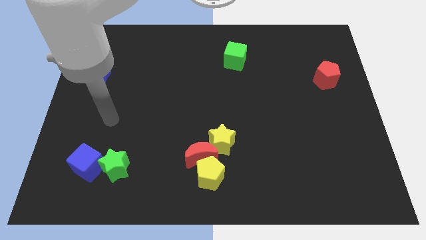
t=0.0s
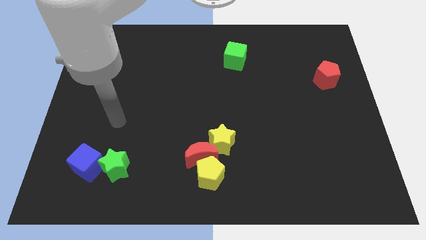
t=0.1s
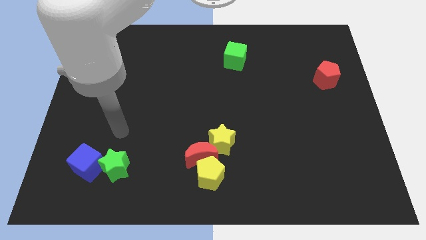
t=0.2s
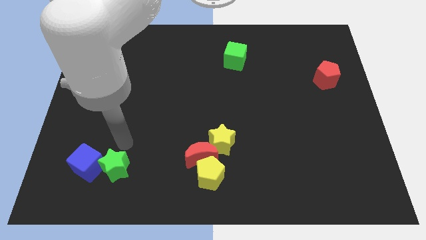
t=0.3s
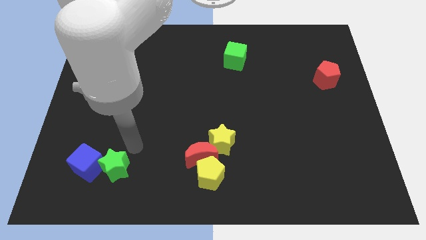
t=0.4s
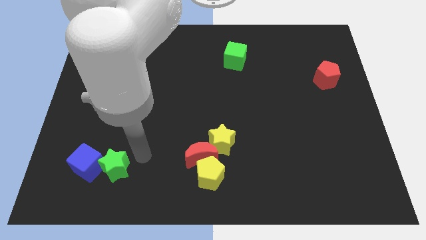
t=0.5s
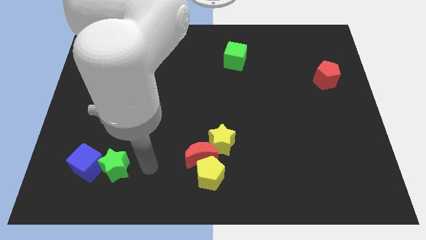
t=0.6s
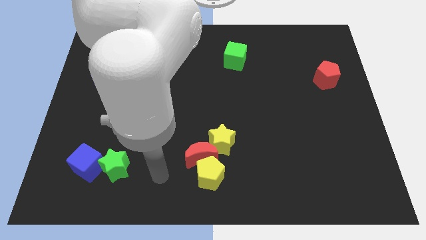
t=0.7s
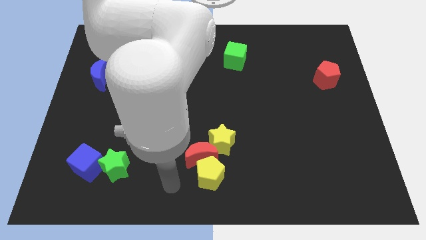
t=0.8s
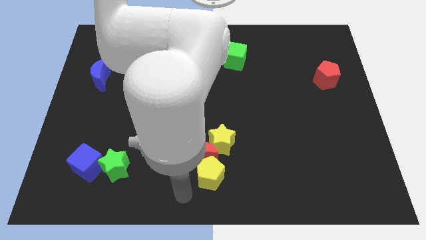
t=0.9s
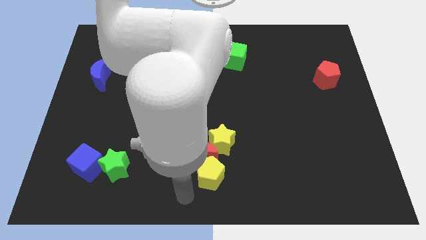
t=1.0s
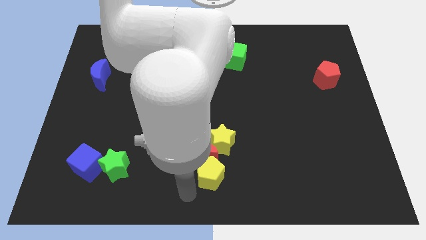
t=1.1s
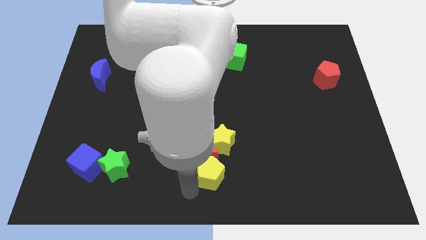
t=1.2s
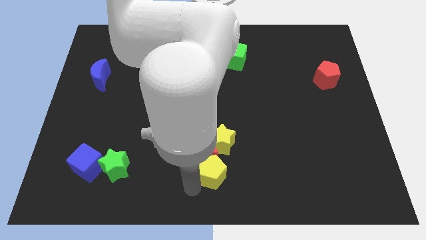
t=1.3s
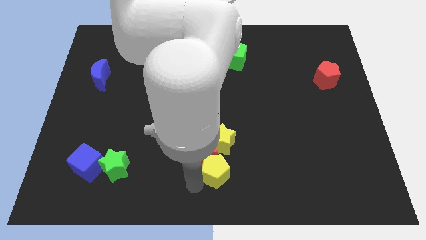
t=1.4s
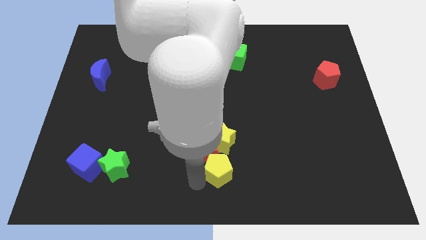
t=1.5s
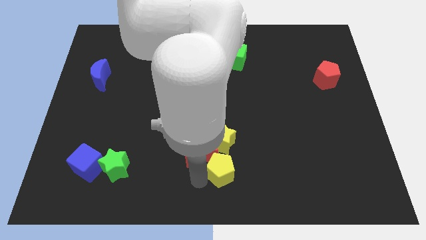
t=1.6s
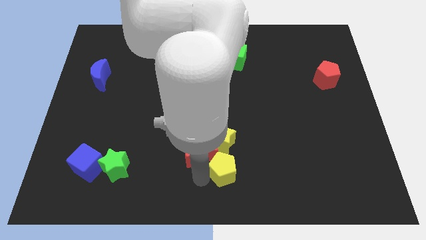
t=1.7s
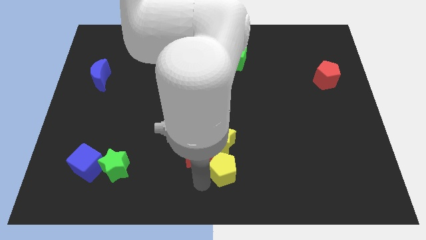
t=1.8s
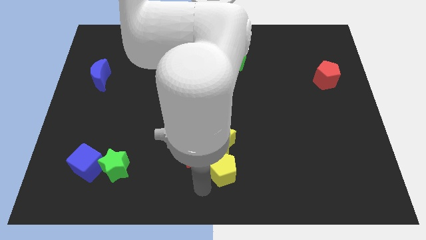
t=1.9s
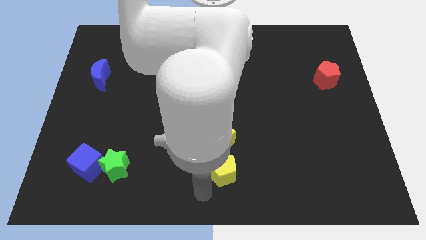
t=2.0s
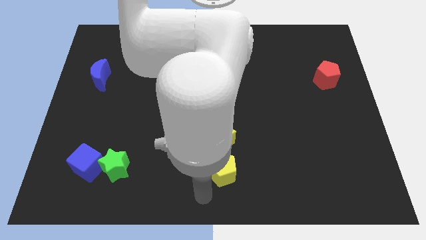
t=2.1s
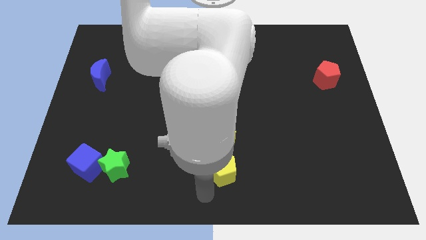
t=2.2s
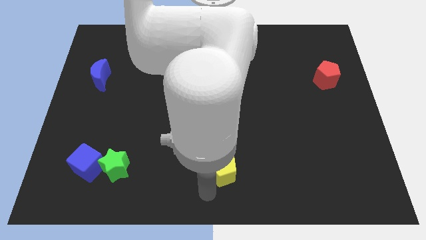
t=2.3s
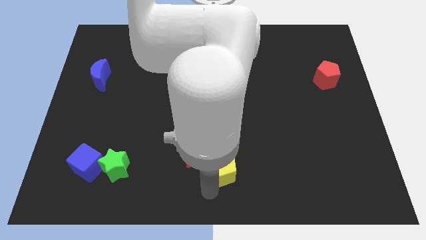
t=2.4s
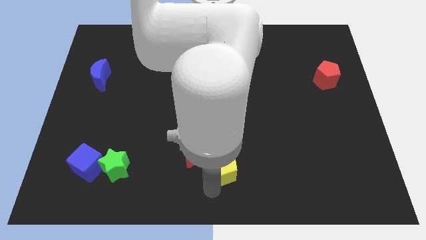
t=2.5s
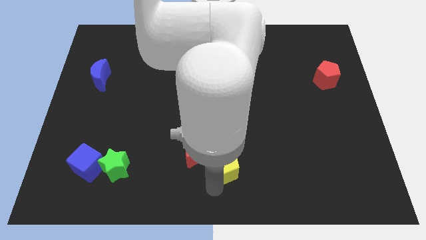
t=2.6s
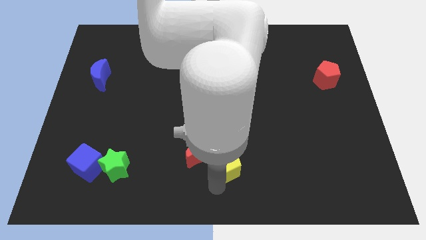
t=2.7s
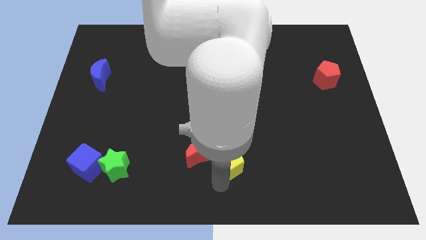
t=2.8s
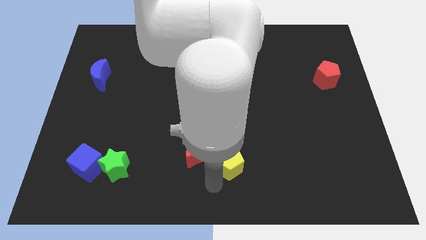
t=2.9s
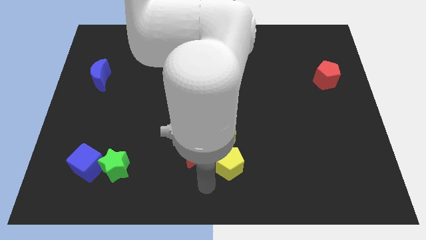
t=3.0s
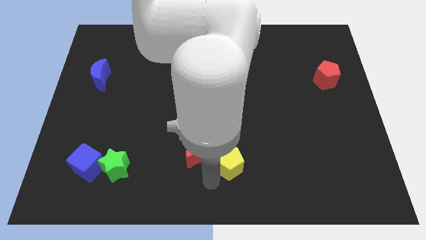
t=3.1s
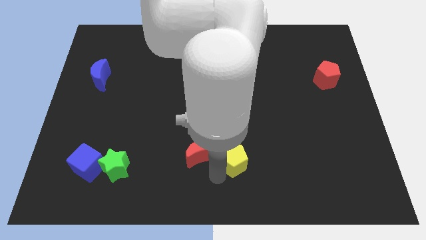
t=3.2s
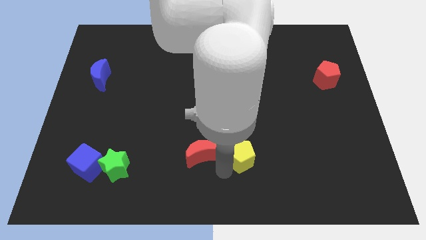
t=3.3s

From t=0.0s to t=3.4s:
slide the yellow pentagon a little up and to the right diagonally

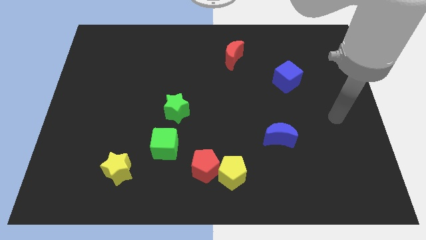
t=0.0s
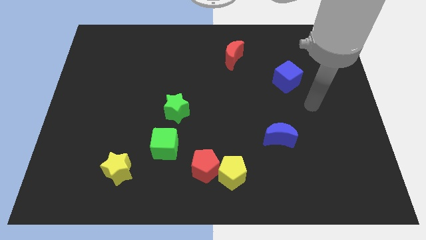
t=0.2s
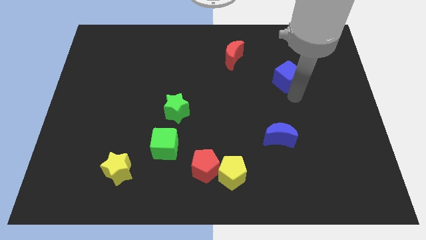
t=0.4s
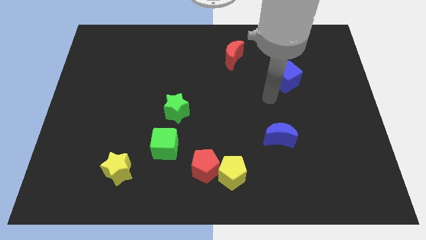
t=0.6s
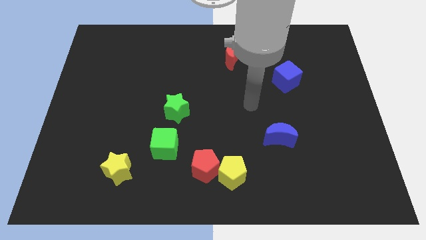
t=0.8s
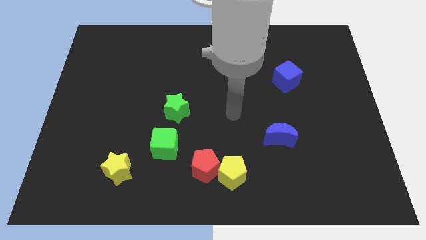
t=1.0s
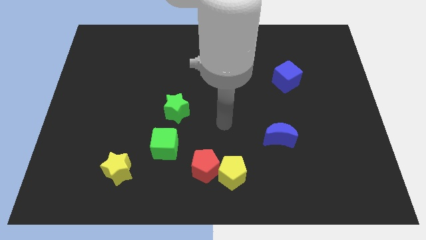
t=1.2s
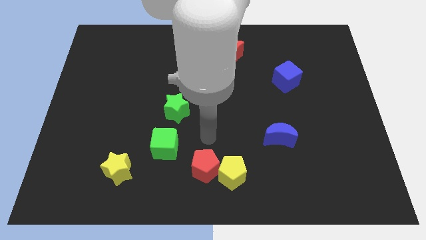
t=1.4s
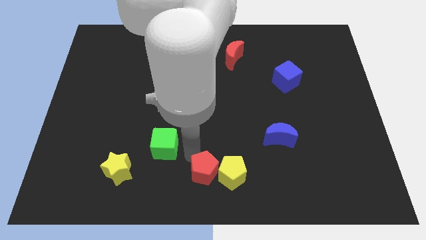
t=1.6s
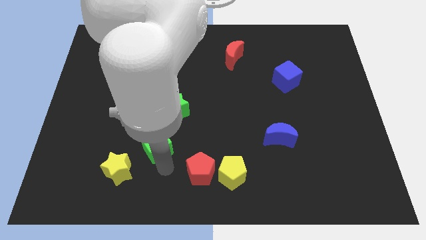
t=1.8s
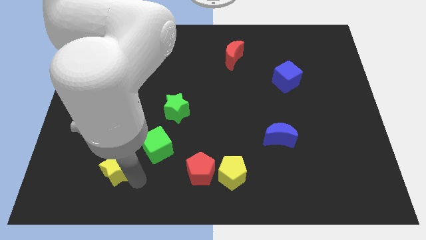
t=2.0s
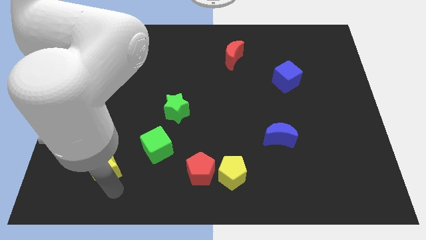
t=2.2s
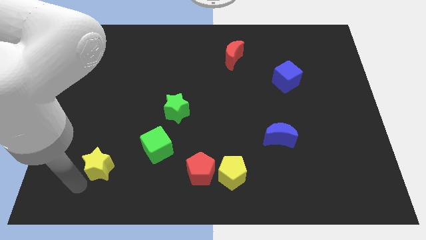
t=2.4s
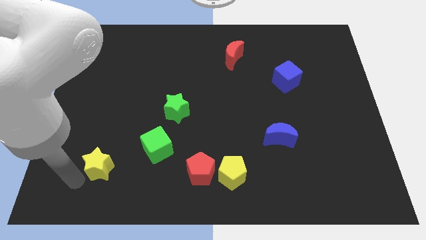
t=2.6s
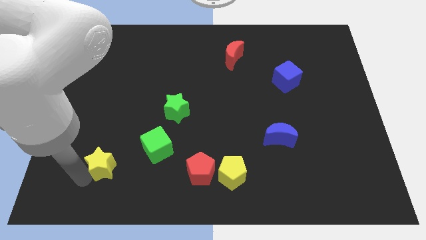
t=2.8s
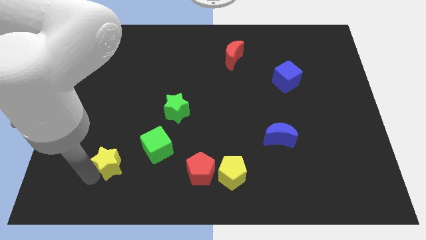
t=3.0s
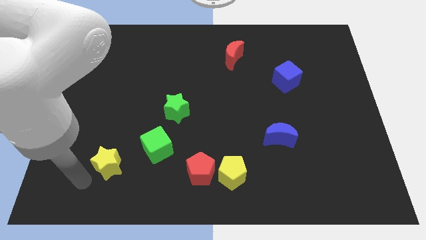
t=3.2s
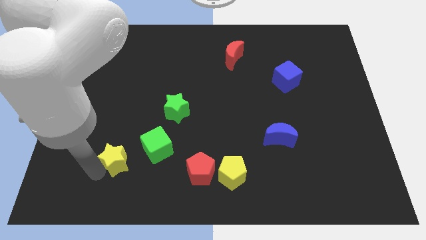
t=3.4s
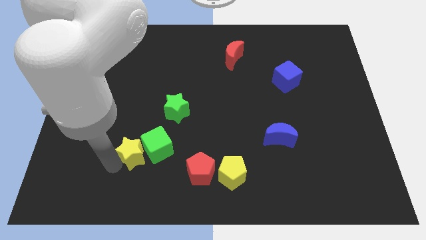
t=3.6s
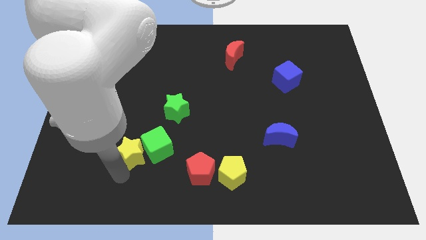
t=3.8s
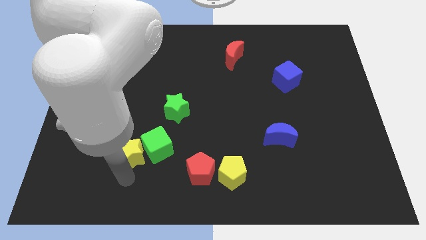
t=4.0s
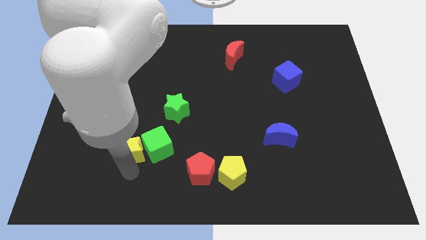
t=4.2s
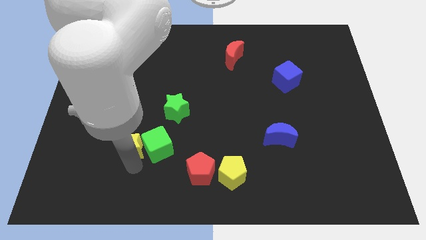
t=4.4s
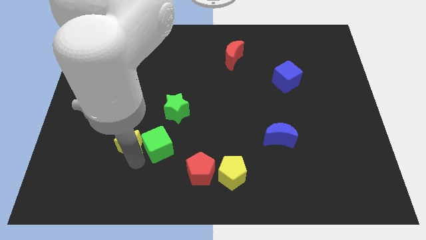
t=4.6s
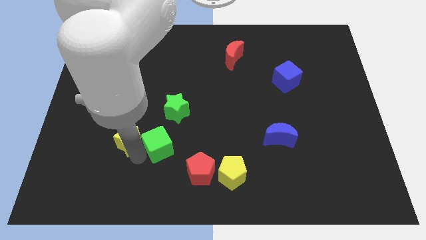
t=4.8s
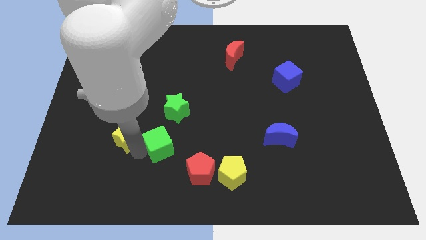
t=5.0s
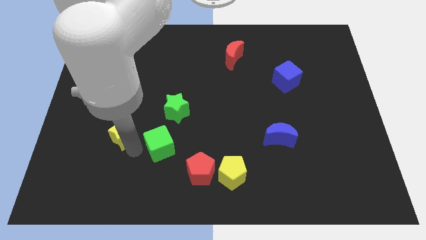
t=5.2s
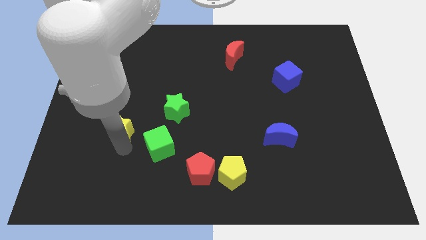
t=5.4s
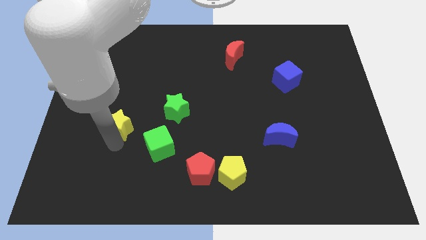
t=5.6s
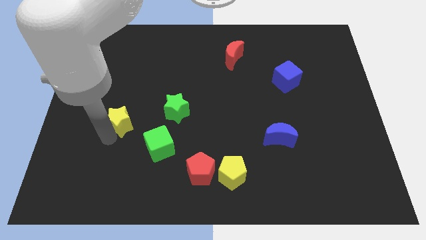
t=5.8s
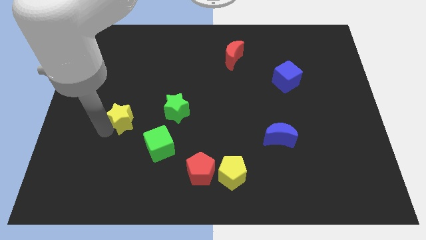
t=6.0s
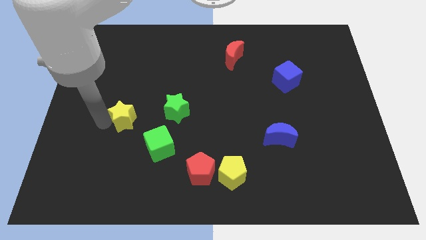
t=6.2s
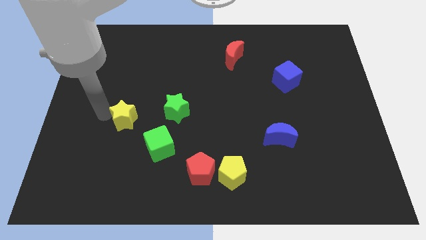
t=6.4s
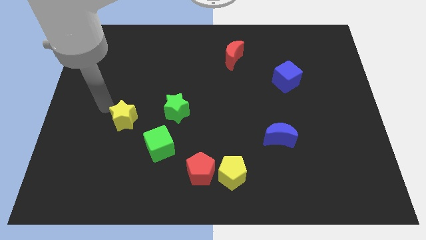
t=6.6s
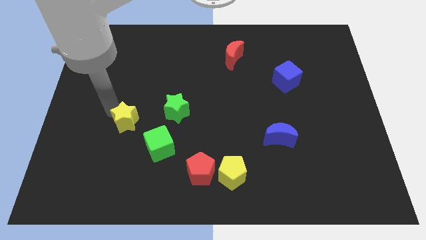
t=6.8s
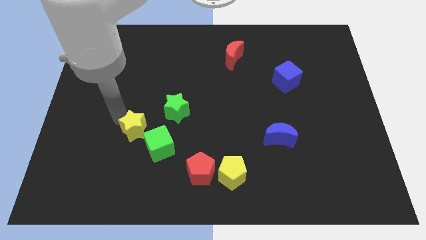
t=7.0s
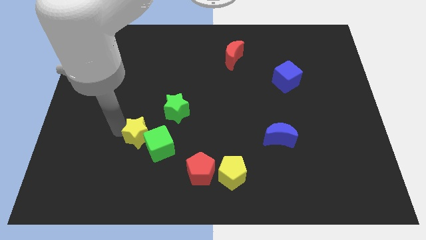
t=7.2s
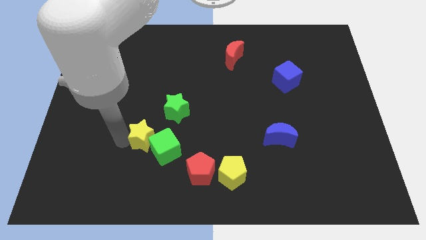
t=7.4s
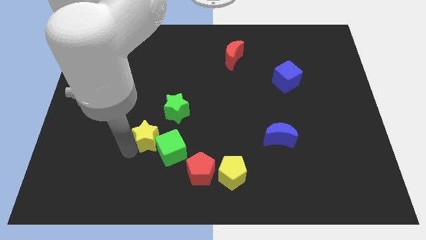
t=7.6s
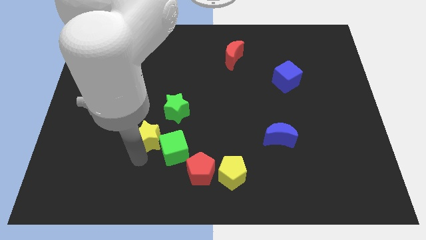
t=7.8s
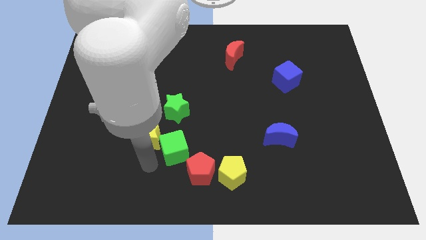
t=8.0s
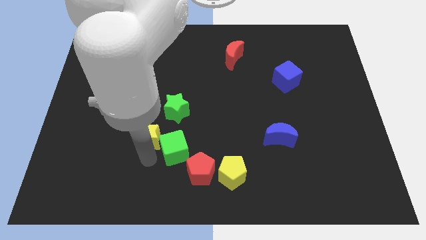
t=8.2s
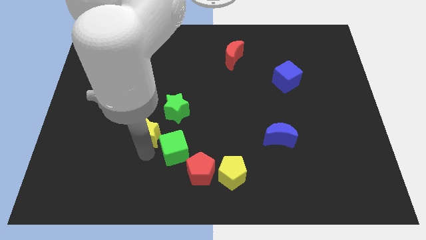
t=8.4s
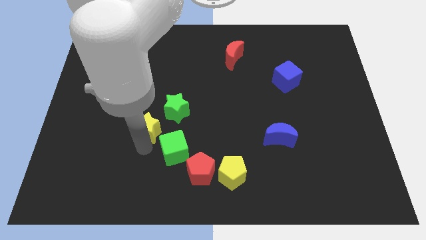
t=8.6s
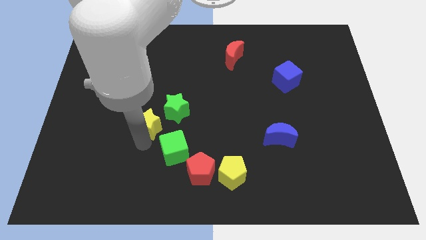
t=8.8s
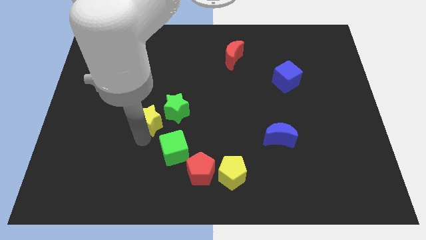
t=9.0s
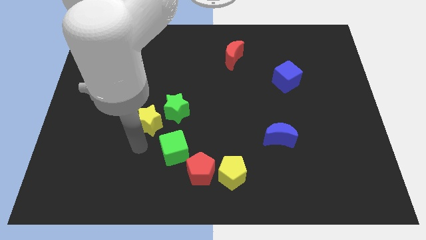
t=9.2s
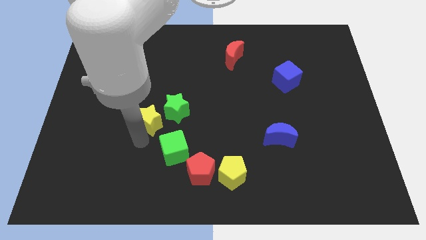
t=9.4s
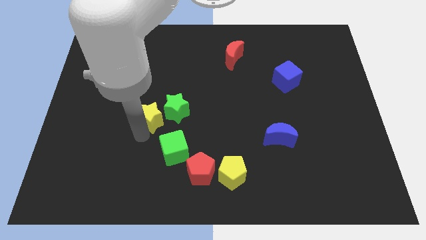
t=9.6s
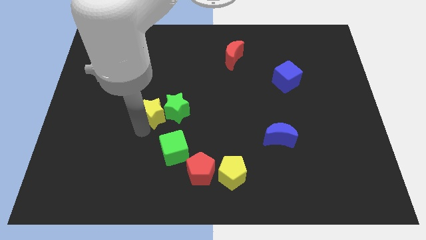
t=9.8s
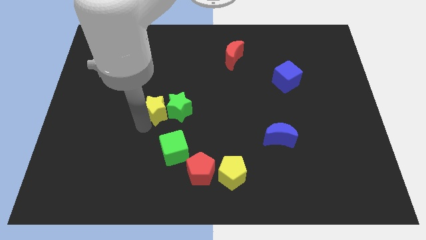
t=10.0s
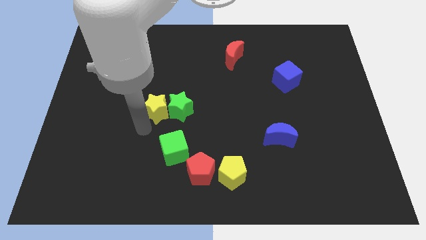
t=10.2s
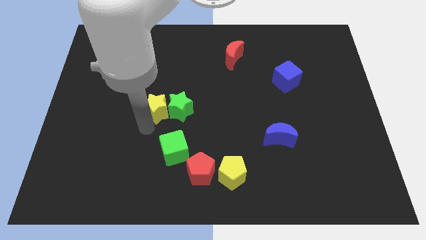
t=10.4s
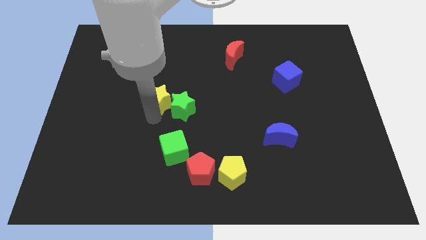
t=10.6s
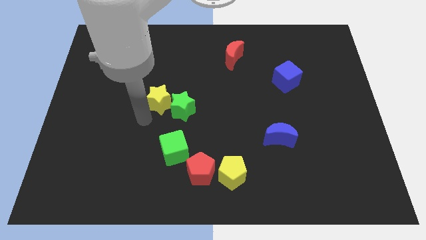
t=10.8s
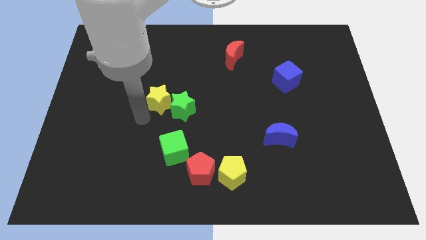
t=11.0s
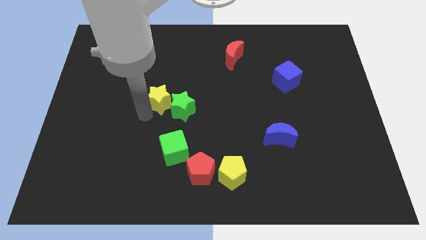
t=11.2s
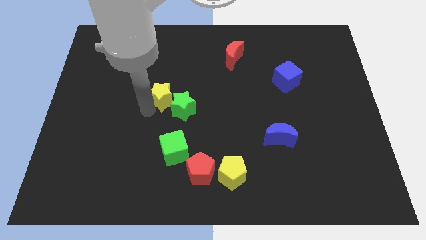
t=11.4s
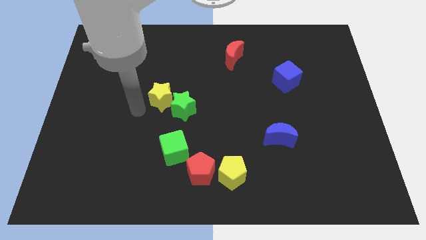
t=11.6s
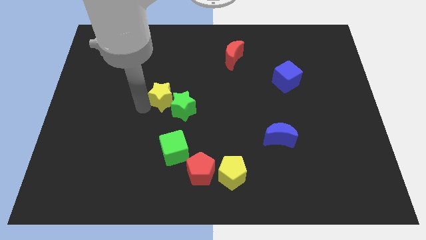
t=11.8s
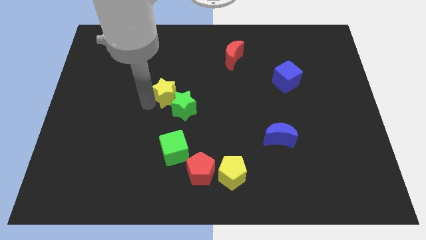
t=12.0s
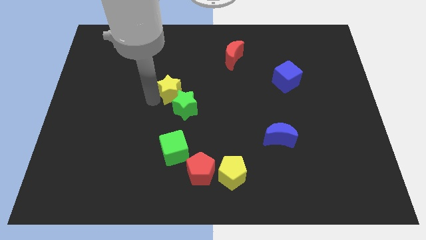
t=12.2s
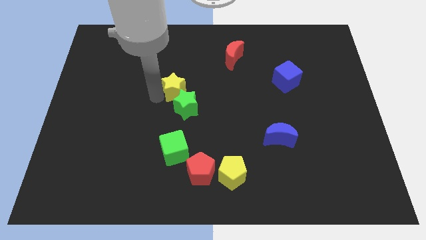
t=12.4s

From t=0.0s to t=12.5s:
slide the yellow star diagonally up and to the right
